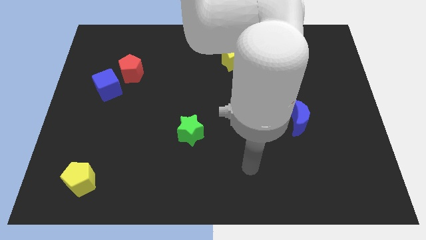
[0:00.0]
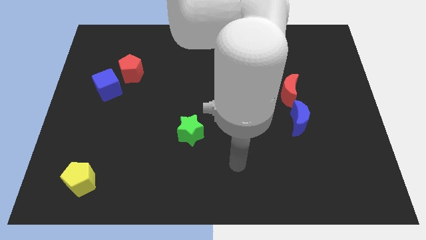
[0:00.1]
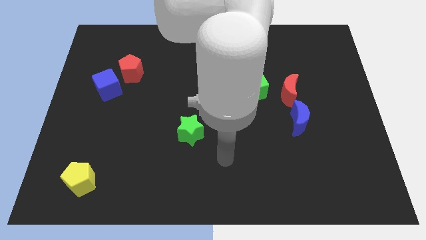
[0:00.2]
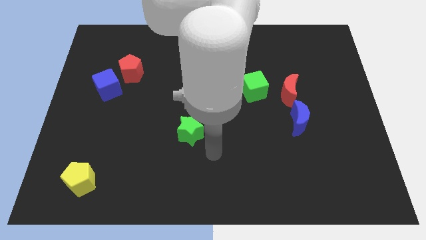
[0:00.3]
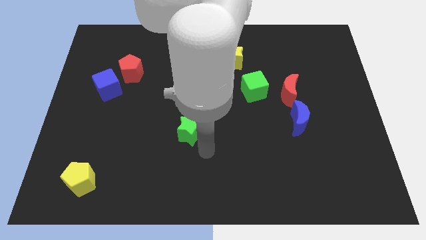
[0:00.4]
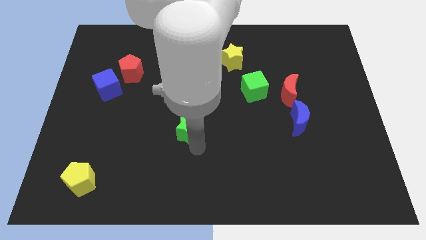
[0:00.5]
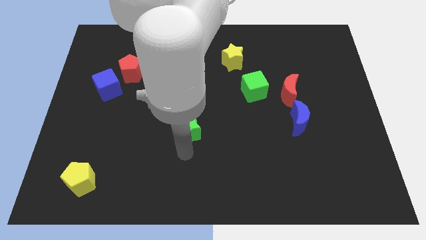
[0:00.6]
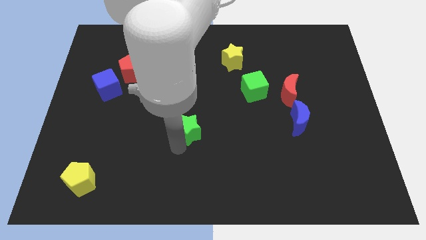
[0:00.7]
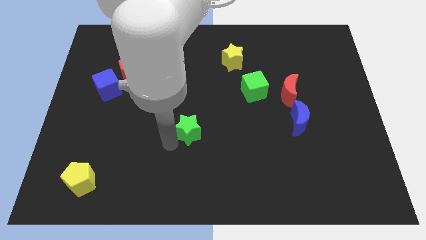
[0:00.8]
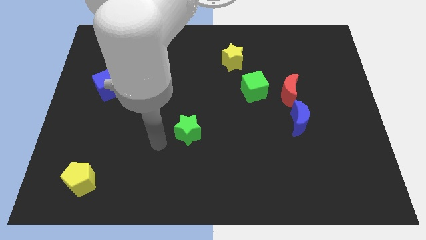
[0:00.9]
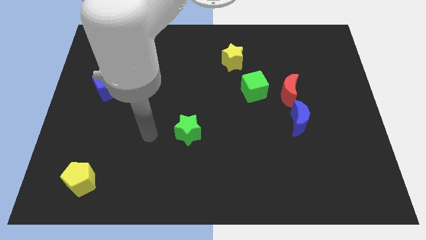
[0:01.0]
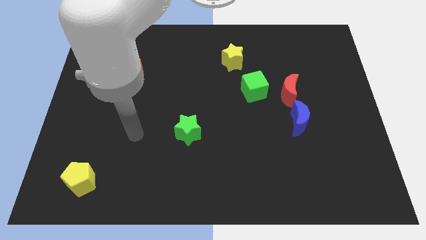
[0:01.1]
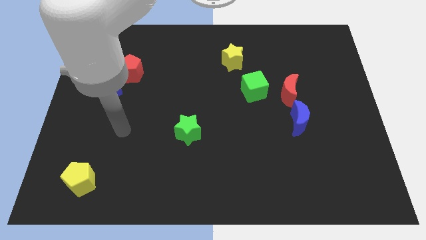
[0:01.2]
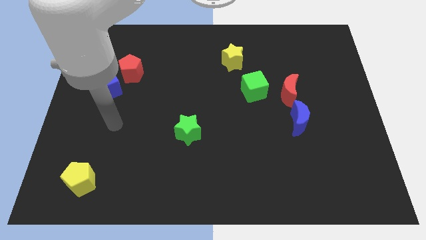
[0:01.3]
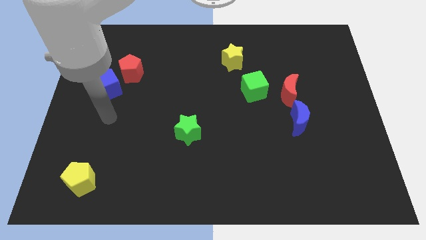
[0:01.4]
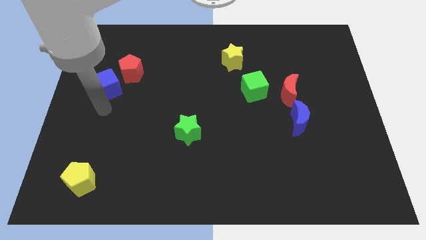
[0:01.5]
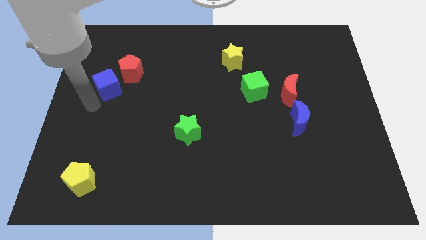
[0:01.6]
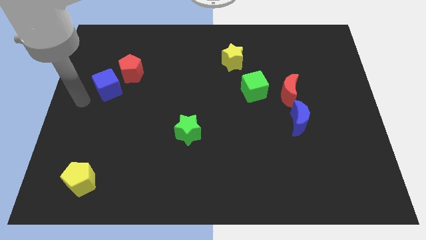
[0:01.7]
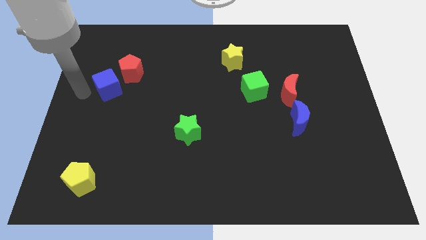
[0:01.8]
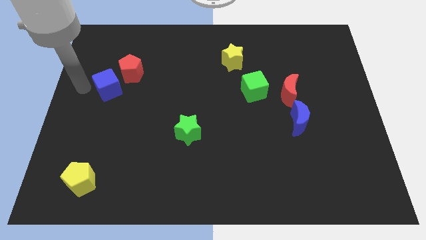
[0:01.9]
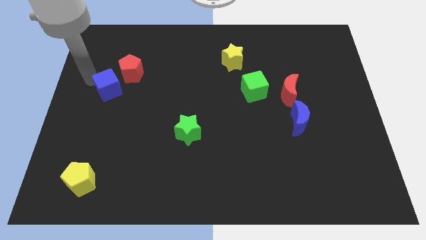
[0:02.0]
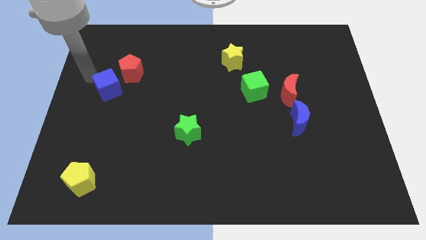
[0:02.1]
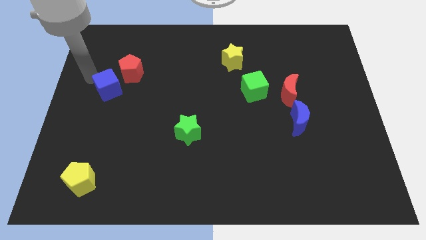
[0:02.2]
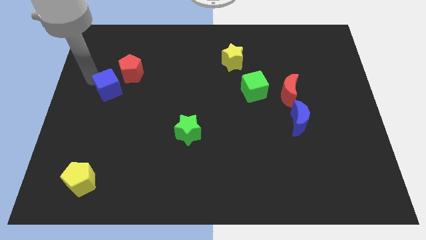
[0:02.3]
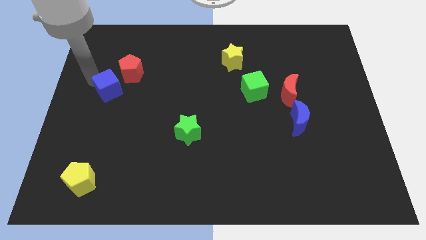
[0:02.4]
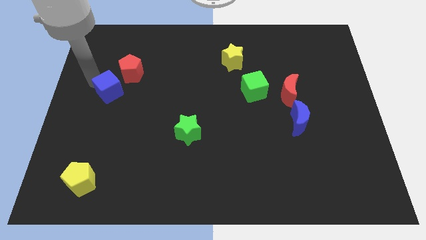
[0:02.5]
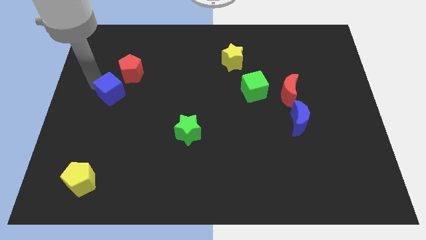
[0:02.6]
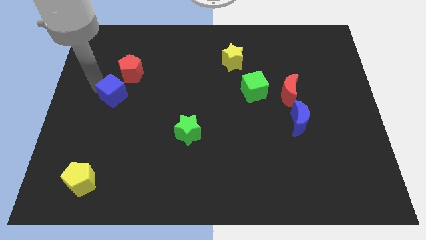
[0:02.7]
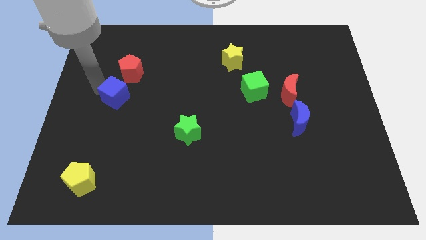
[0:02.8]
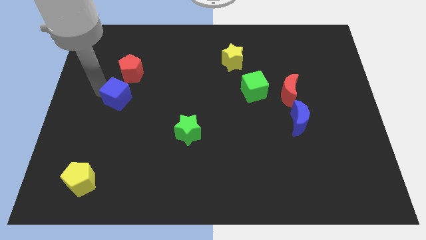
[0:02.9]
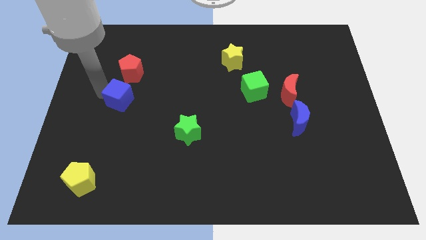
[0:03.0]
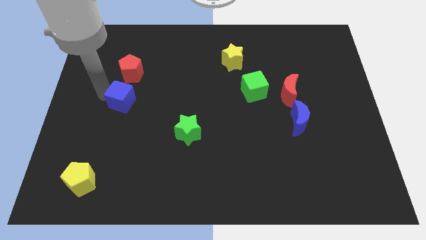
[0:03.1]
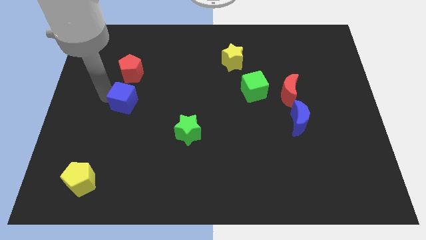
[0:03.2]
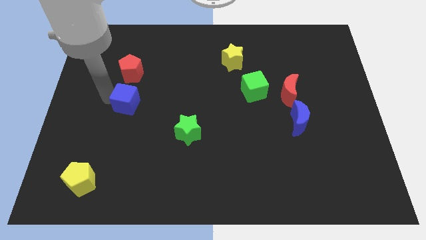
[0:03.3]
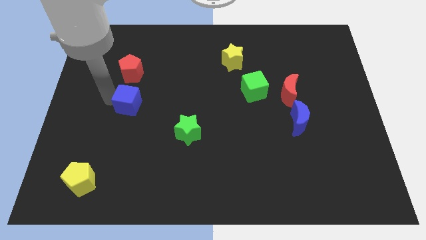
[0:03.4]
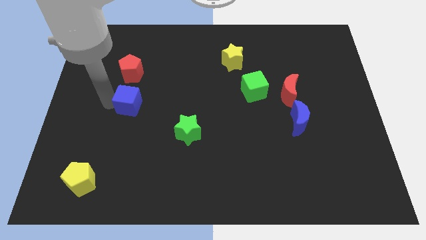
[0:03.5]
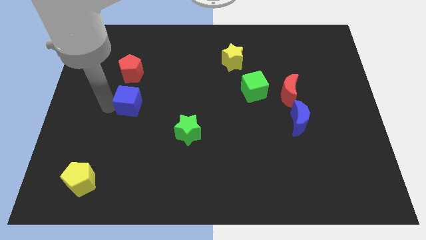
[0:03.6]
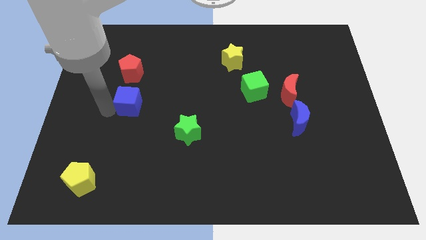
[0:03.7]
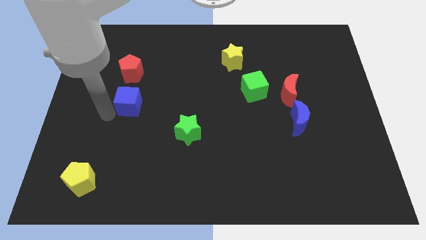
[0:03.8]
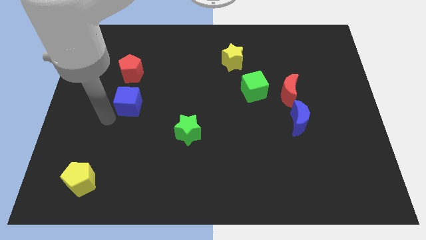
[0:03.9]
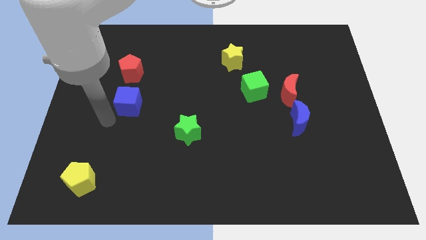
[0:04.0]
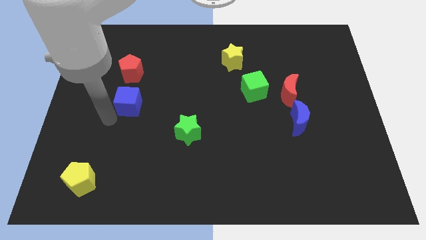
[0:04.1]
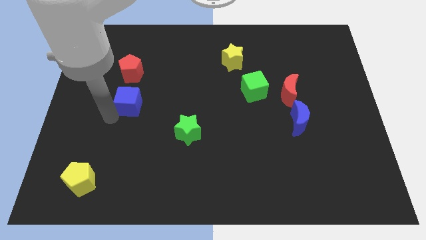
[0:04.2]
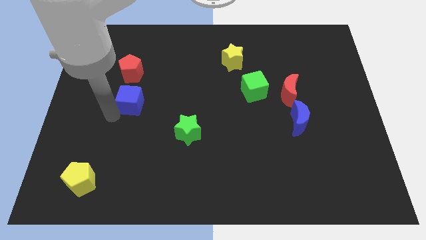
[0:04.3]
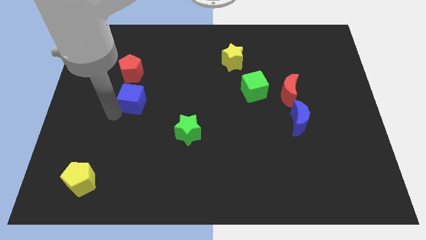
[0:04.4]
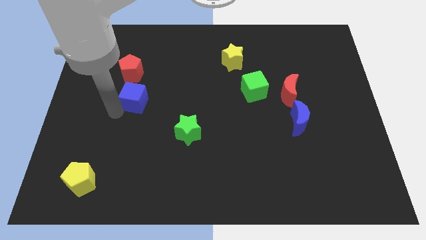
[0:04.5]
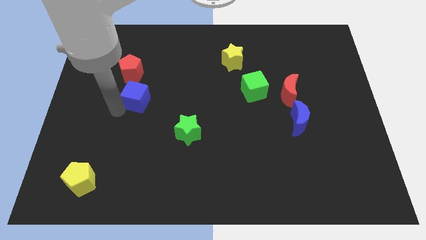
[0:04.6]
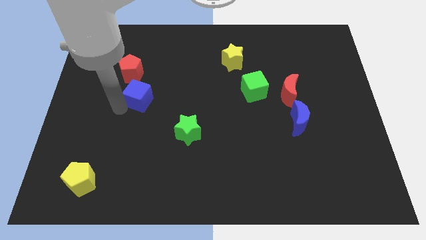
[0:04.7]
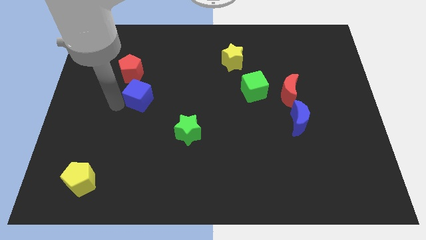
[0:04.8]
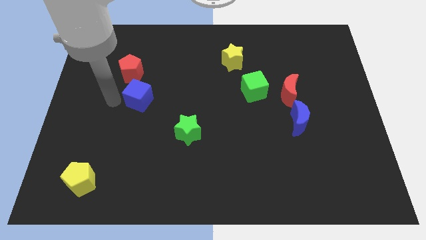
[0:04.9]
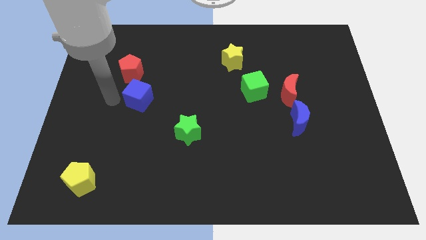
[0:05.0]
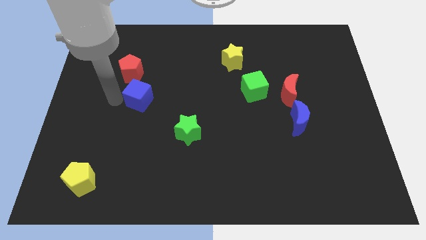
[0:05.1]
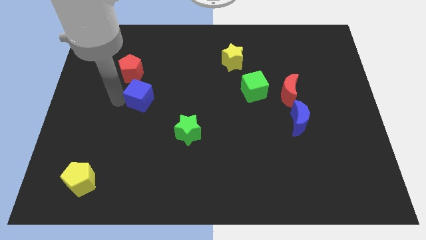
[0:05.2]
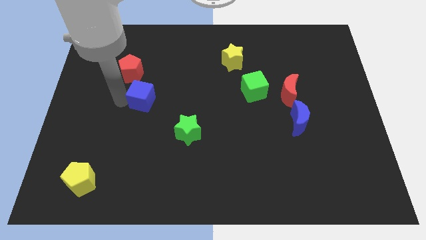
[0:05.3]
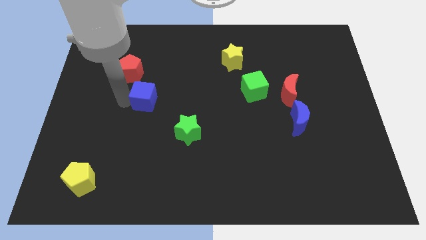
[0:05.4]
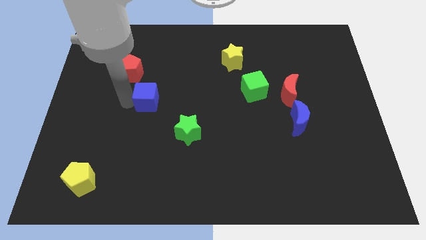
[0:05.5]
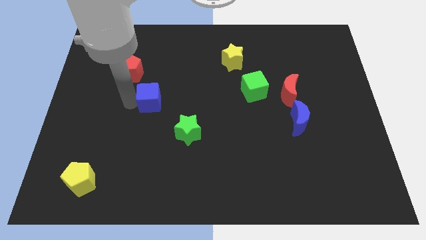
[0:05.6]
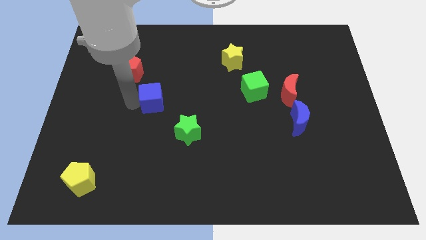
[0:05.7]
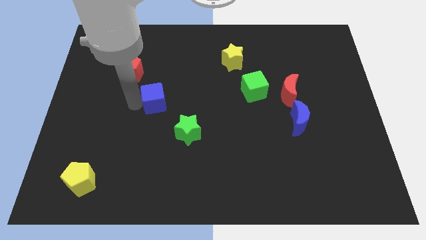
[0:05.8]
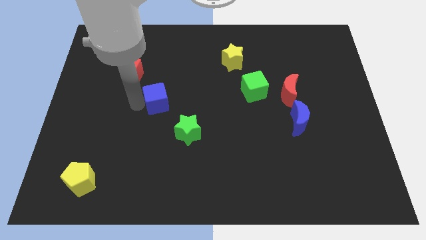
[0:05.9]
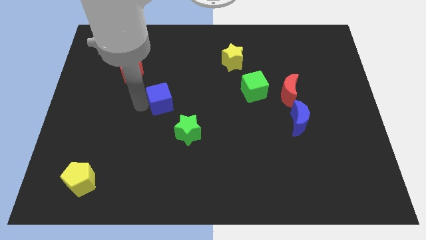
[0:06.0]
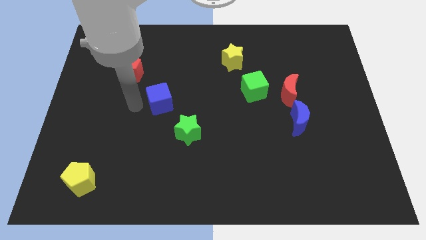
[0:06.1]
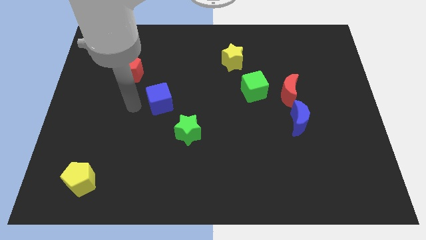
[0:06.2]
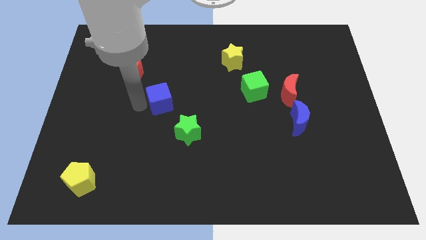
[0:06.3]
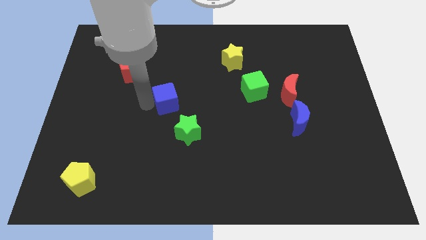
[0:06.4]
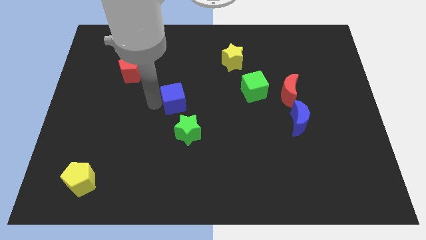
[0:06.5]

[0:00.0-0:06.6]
push the blue cube above the green star

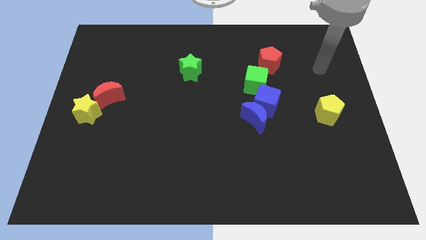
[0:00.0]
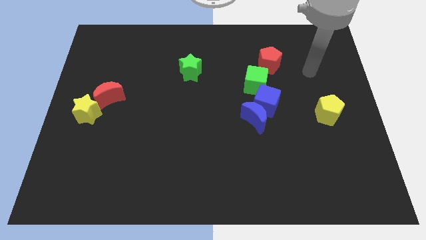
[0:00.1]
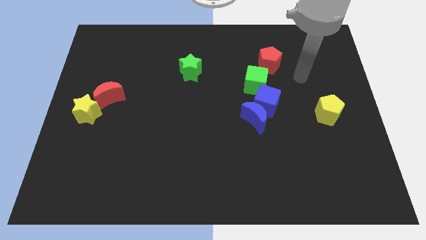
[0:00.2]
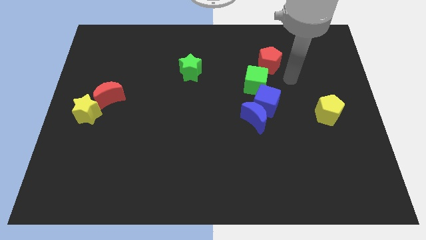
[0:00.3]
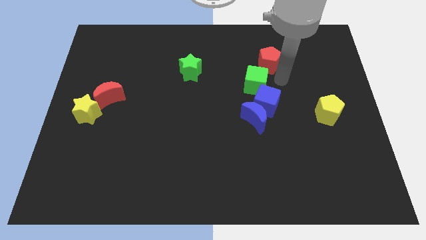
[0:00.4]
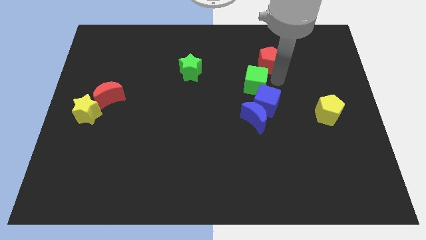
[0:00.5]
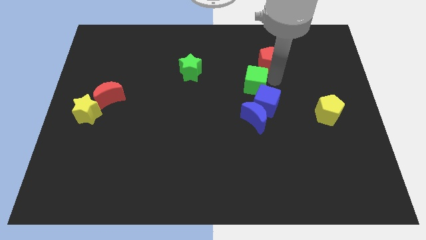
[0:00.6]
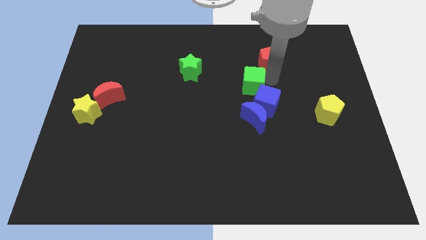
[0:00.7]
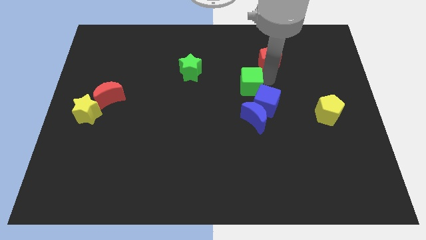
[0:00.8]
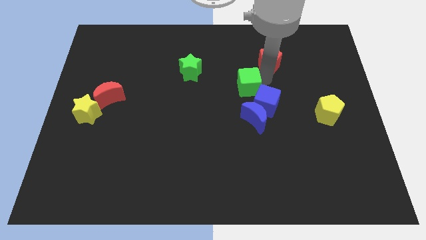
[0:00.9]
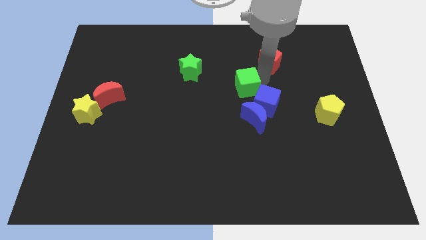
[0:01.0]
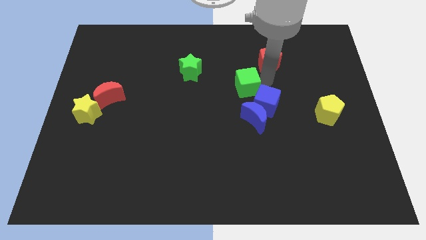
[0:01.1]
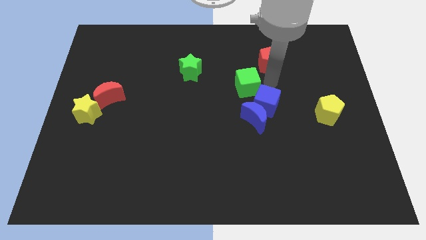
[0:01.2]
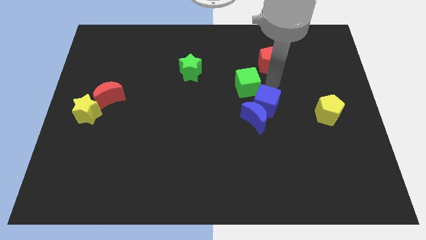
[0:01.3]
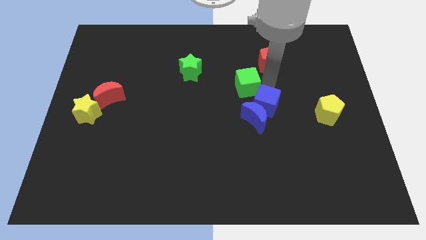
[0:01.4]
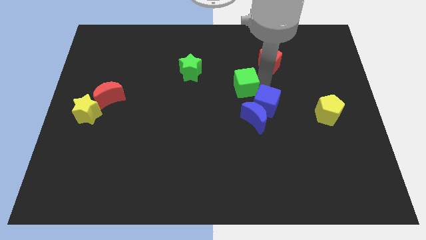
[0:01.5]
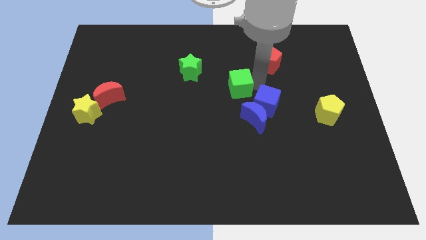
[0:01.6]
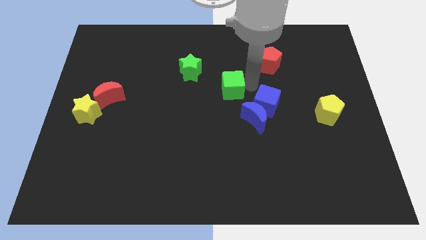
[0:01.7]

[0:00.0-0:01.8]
move the green cube to the bottom right of the green star
